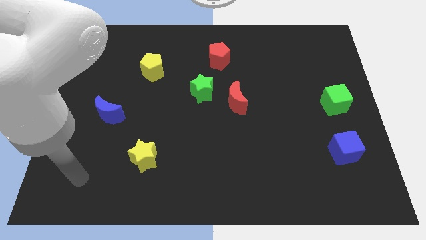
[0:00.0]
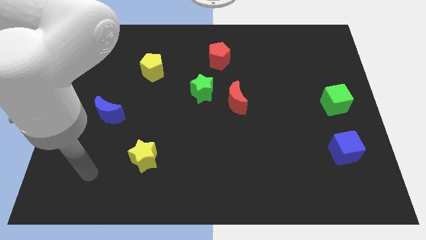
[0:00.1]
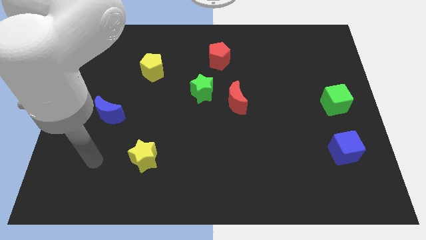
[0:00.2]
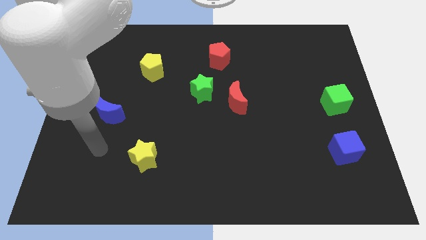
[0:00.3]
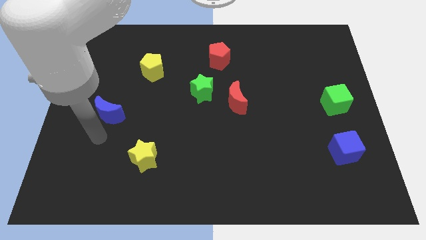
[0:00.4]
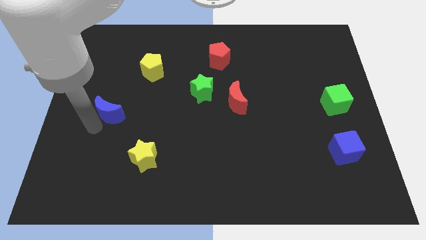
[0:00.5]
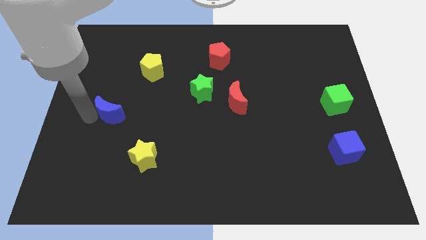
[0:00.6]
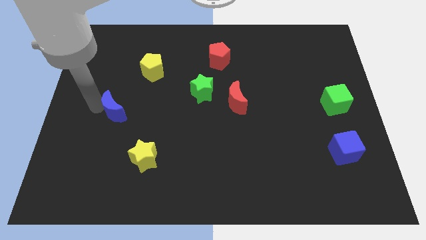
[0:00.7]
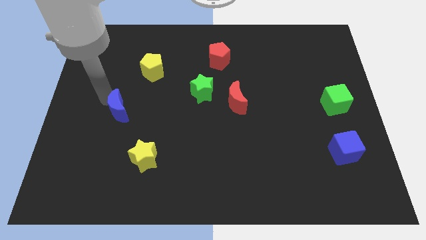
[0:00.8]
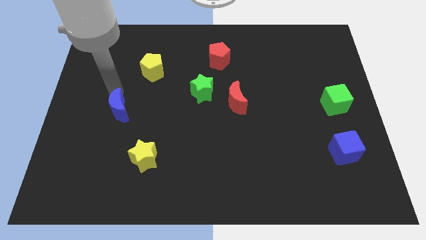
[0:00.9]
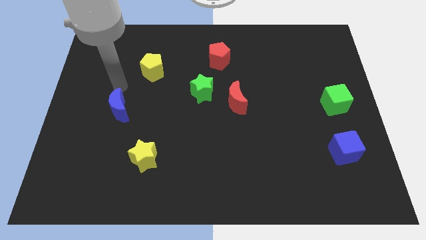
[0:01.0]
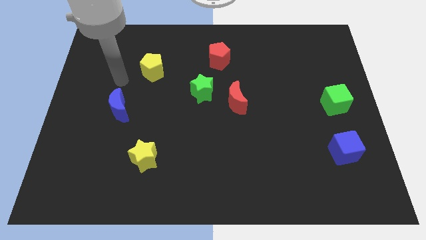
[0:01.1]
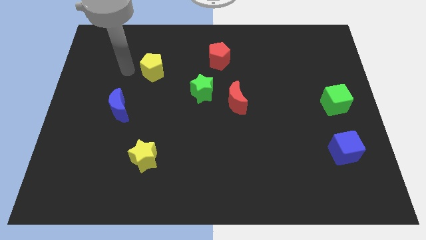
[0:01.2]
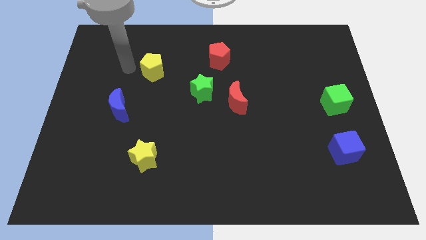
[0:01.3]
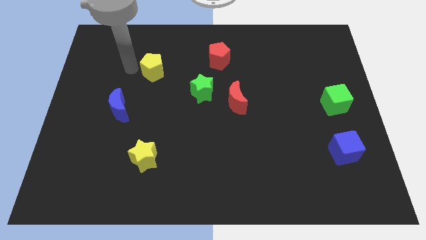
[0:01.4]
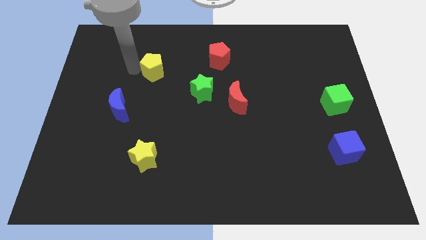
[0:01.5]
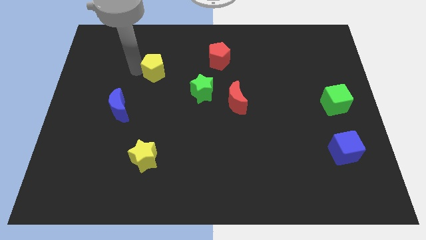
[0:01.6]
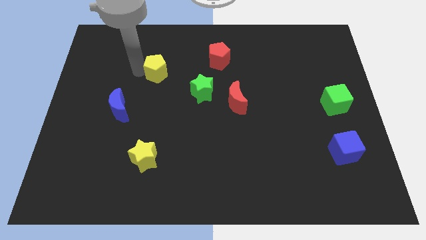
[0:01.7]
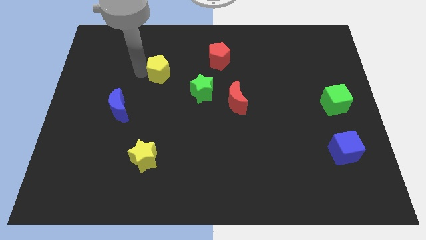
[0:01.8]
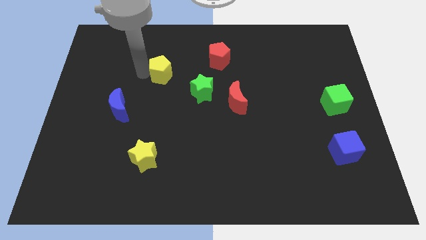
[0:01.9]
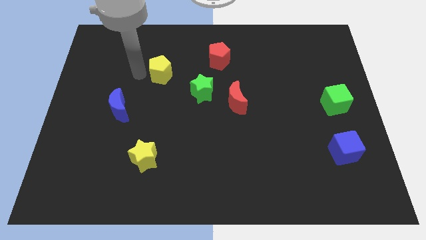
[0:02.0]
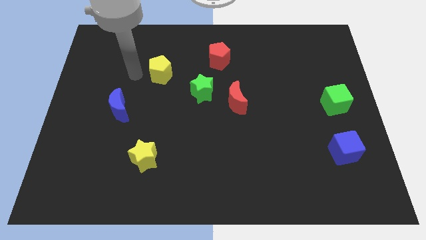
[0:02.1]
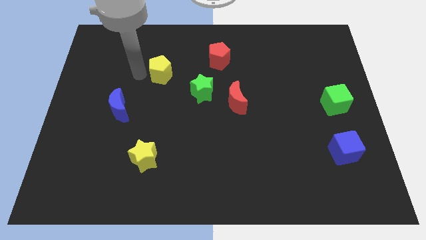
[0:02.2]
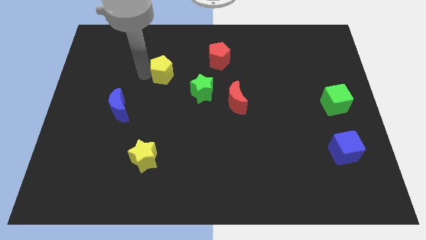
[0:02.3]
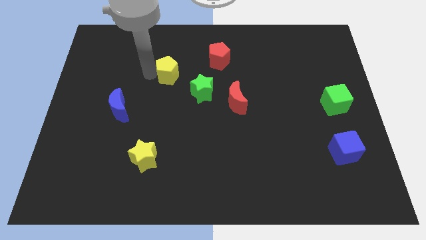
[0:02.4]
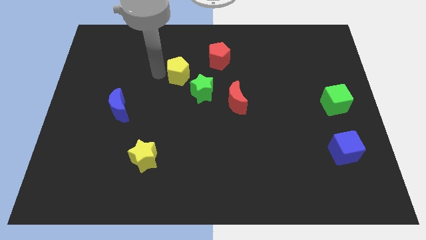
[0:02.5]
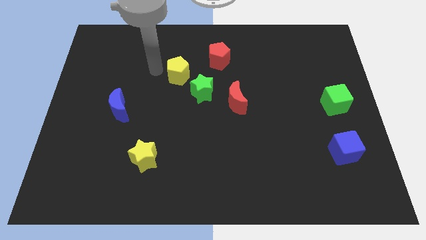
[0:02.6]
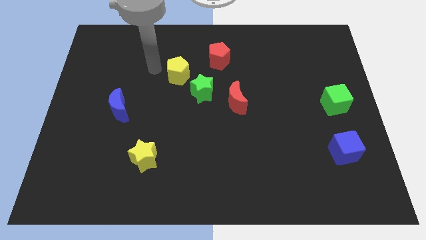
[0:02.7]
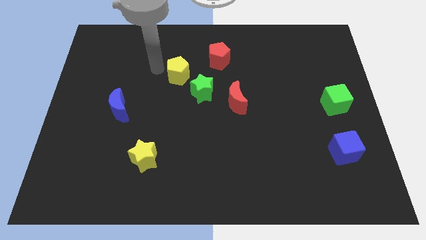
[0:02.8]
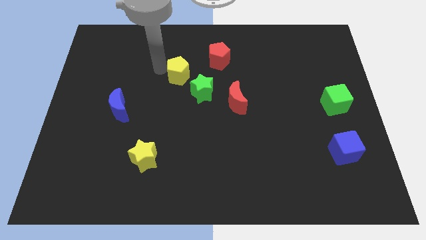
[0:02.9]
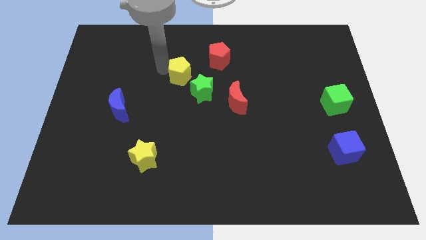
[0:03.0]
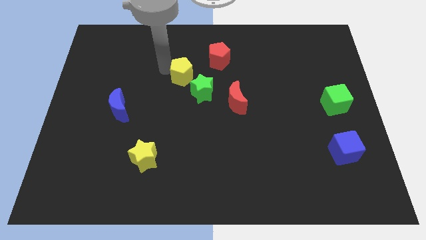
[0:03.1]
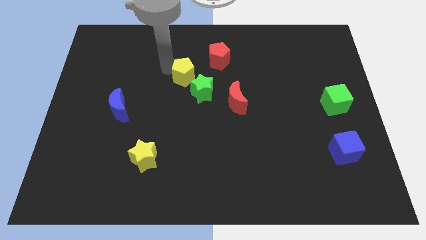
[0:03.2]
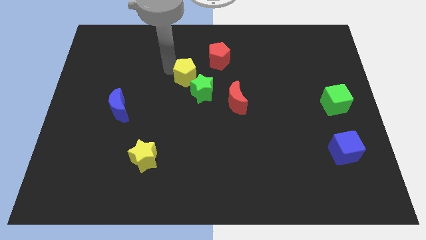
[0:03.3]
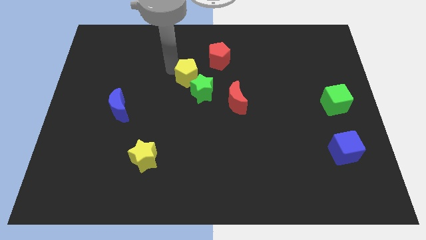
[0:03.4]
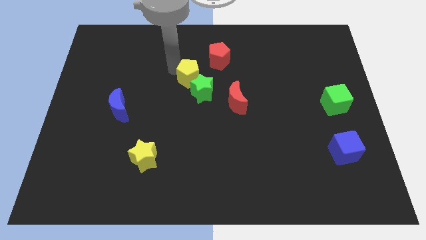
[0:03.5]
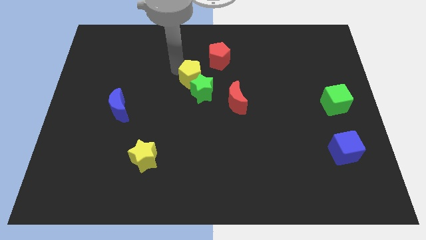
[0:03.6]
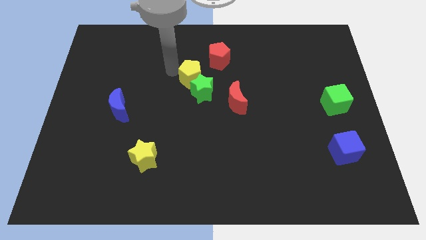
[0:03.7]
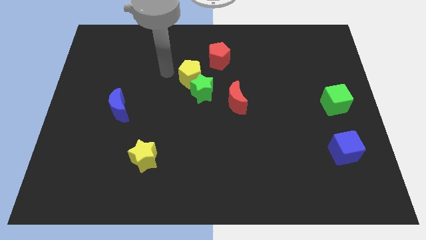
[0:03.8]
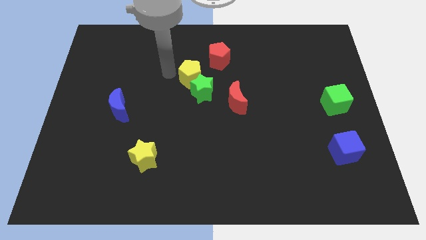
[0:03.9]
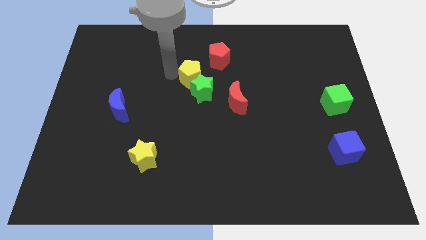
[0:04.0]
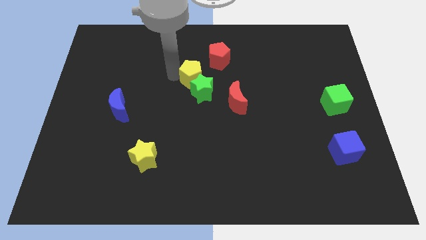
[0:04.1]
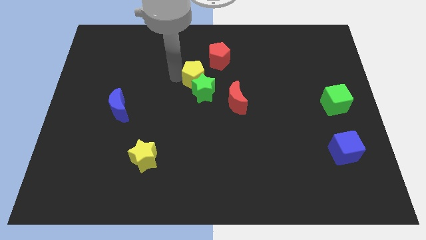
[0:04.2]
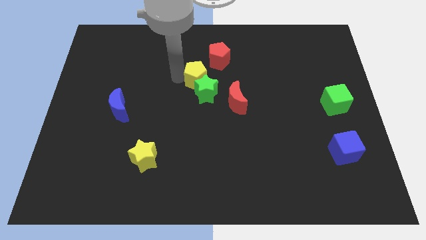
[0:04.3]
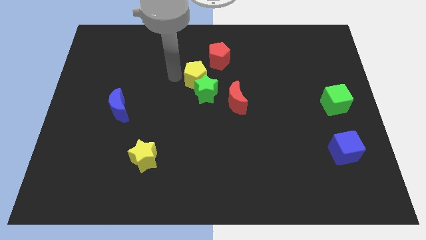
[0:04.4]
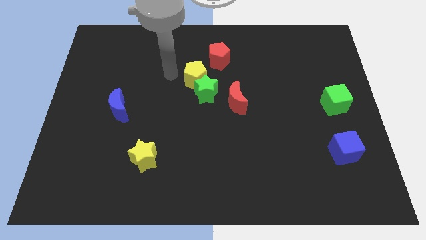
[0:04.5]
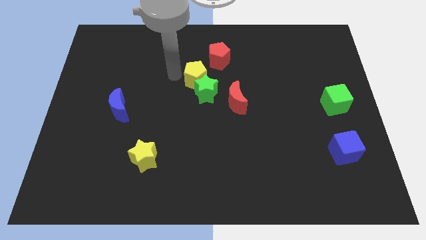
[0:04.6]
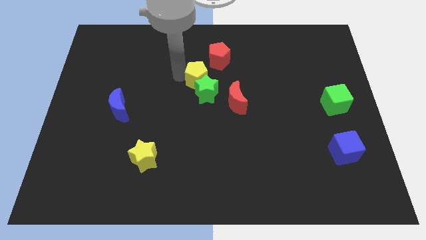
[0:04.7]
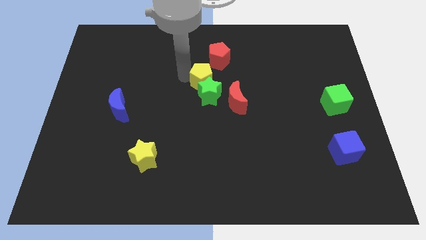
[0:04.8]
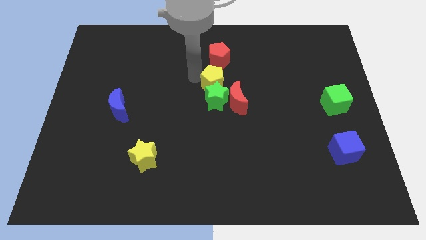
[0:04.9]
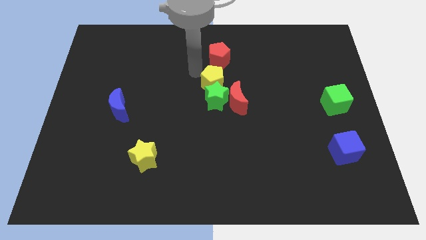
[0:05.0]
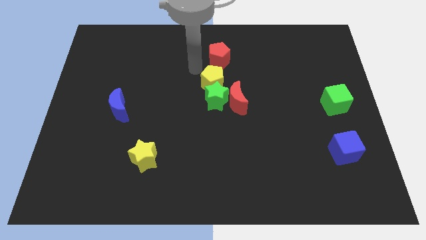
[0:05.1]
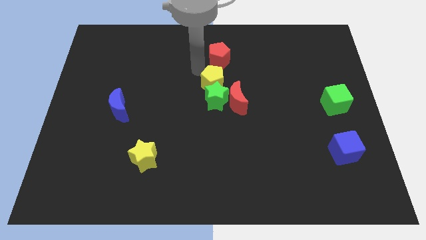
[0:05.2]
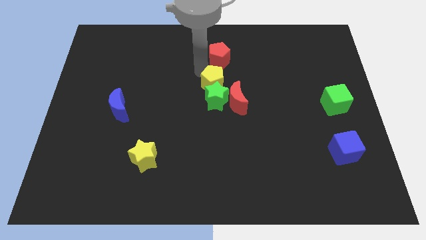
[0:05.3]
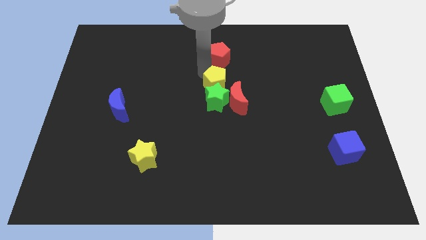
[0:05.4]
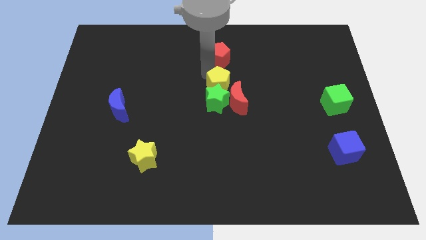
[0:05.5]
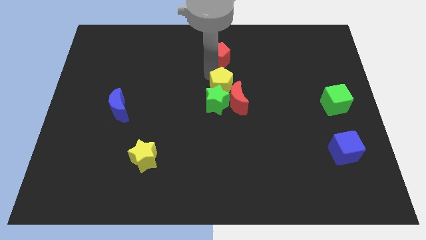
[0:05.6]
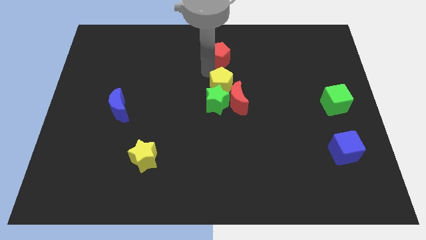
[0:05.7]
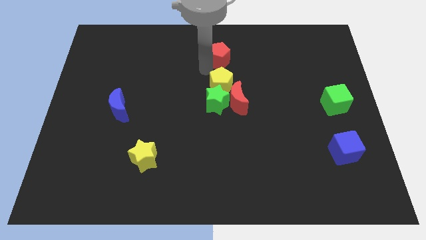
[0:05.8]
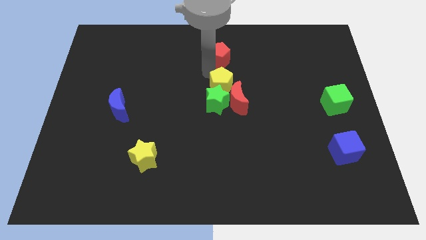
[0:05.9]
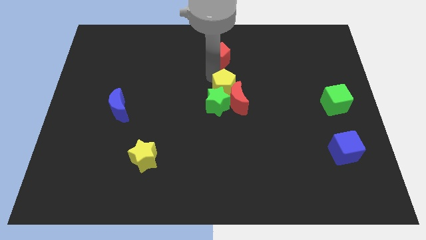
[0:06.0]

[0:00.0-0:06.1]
push the yellow pentagon next to the red moon

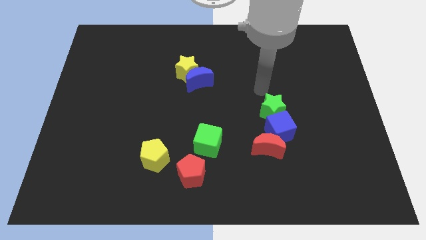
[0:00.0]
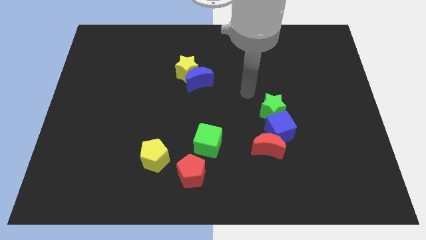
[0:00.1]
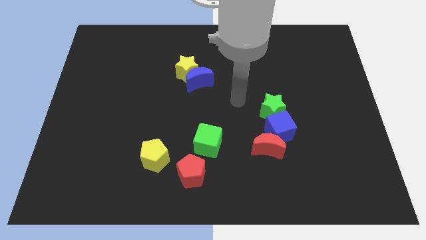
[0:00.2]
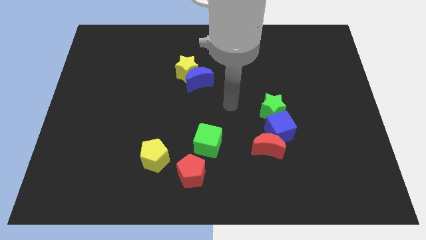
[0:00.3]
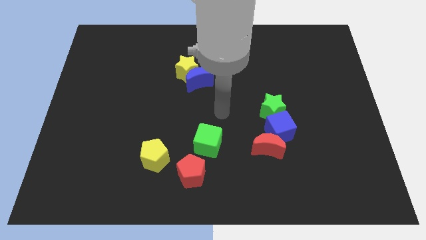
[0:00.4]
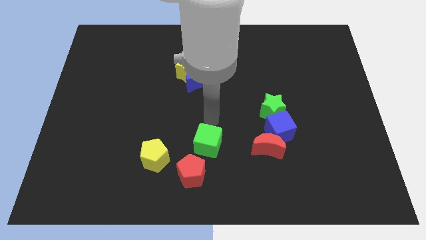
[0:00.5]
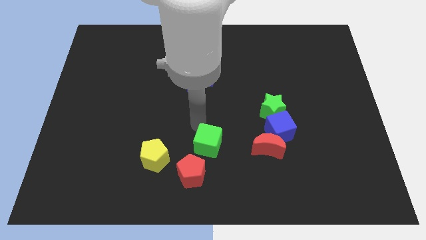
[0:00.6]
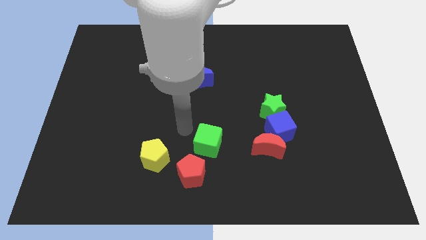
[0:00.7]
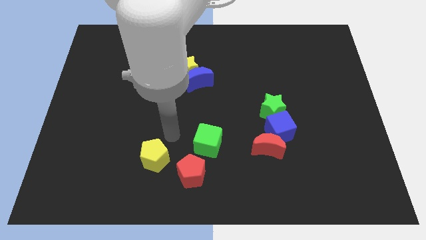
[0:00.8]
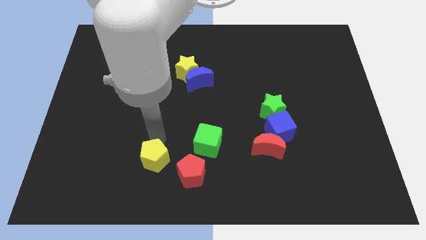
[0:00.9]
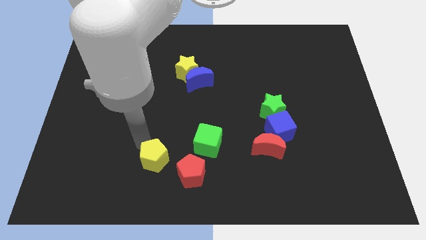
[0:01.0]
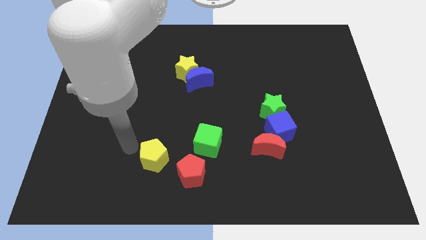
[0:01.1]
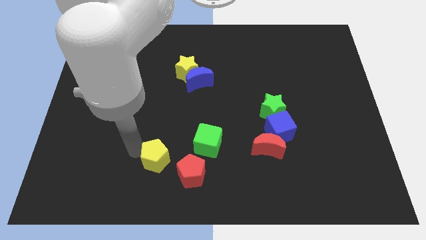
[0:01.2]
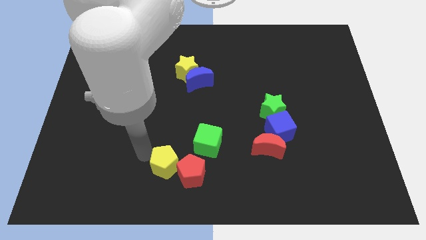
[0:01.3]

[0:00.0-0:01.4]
put the yellow pentagon towards the red pentagon
